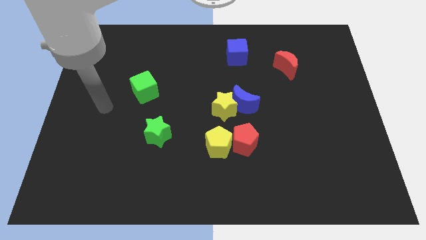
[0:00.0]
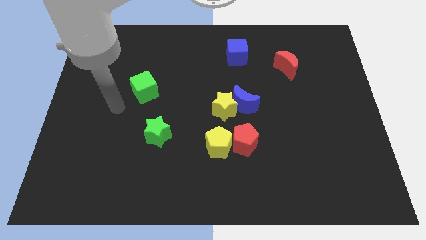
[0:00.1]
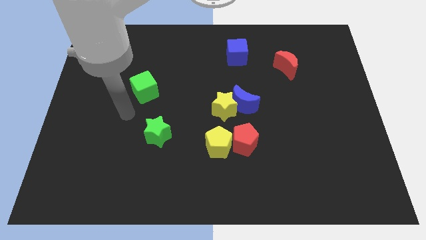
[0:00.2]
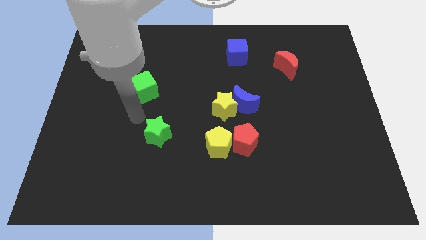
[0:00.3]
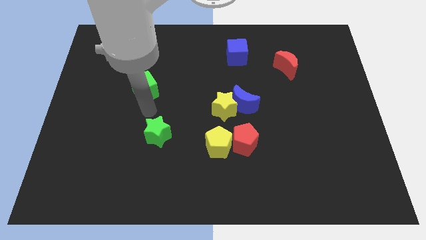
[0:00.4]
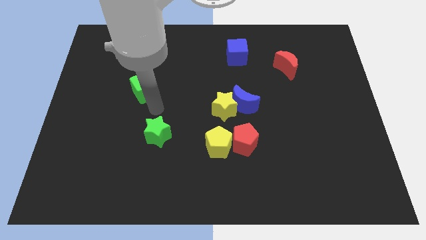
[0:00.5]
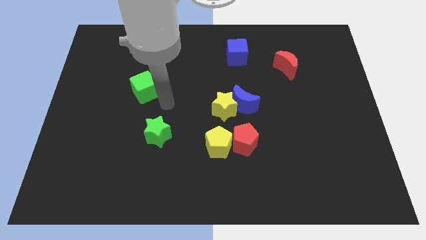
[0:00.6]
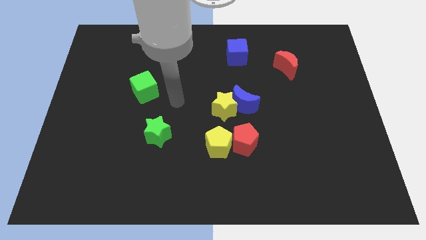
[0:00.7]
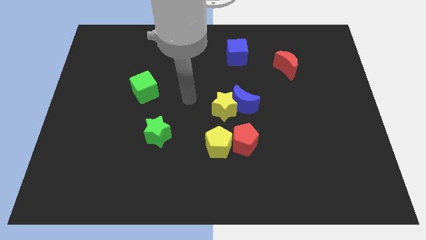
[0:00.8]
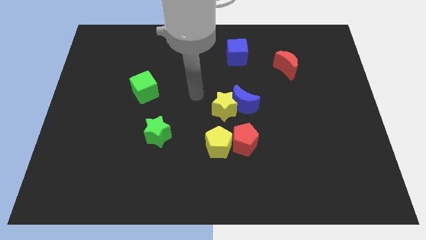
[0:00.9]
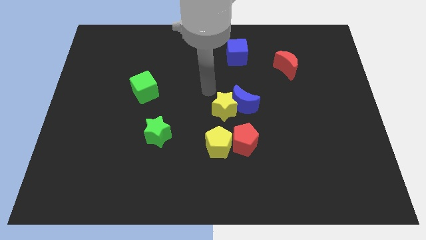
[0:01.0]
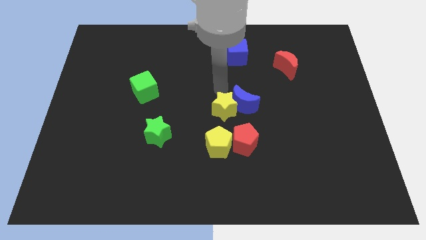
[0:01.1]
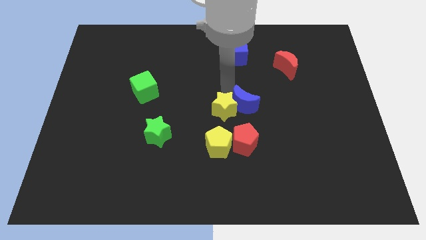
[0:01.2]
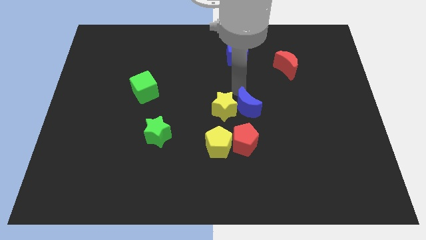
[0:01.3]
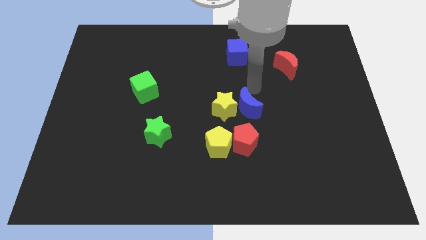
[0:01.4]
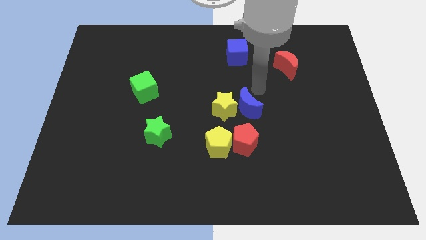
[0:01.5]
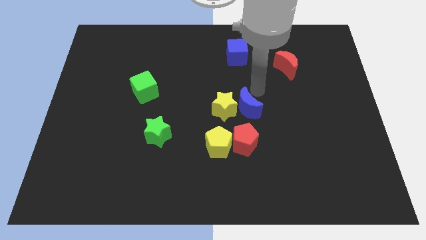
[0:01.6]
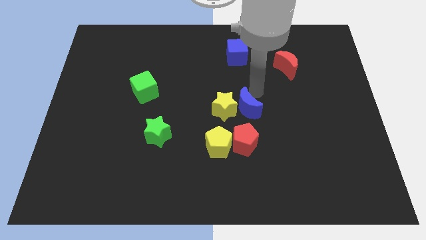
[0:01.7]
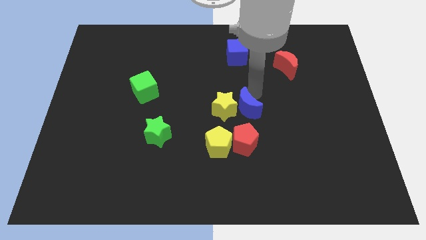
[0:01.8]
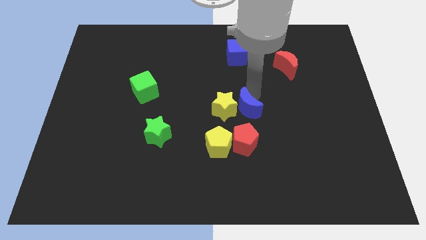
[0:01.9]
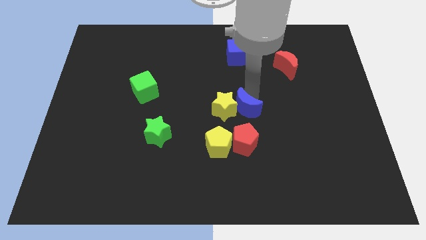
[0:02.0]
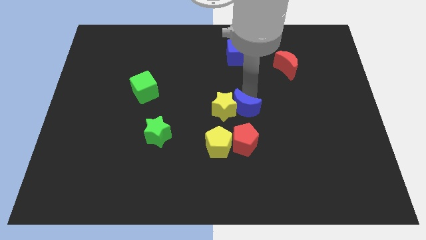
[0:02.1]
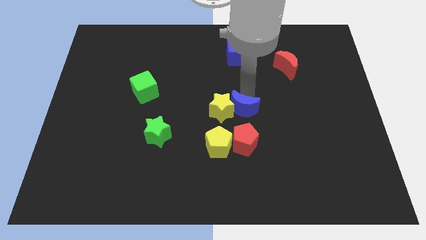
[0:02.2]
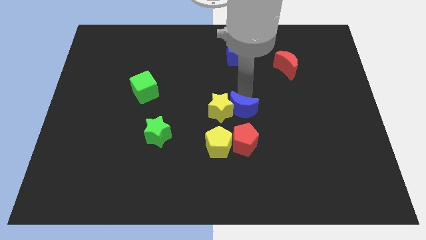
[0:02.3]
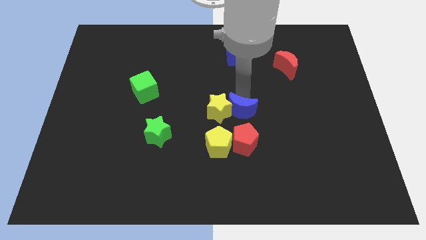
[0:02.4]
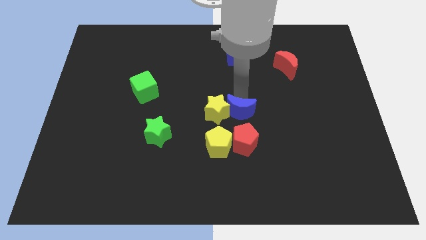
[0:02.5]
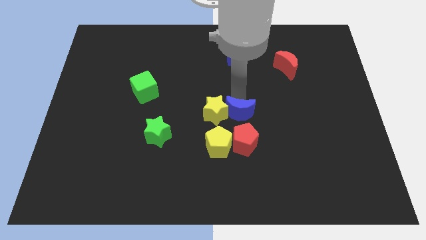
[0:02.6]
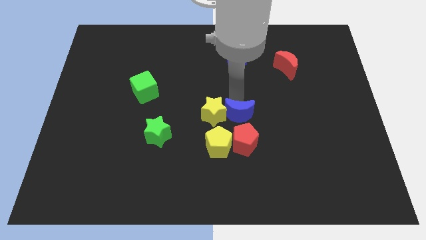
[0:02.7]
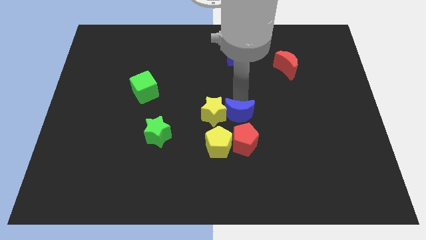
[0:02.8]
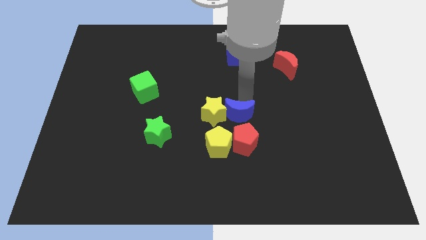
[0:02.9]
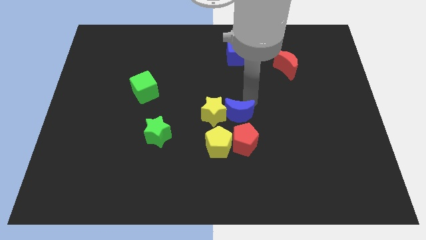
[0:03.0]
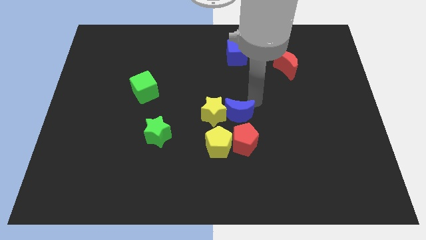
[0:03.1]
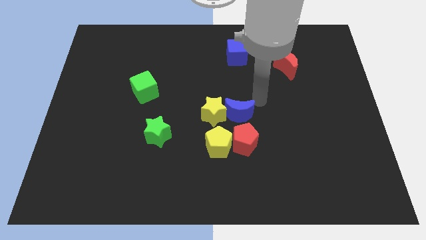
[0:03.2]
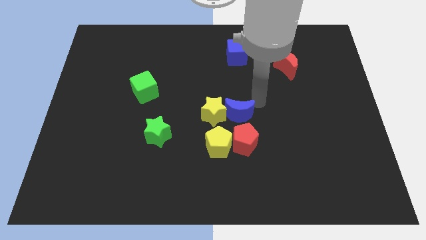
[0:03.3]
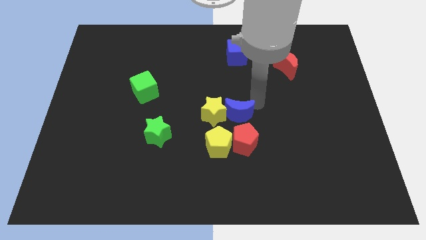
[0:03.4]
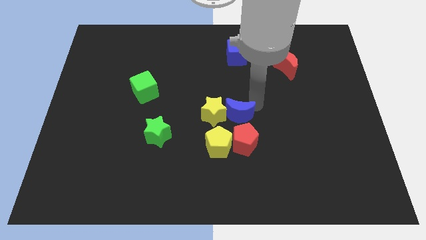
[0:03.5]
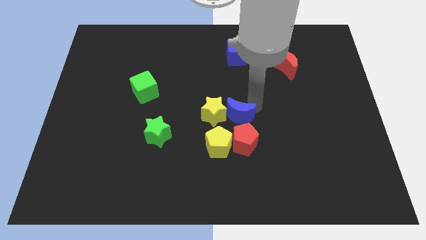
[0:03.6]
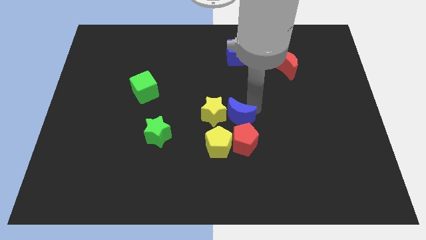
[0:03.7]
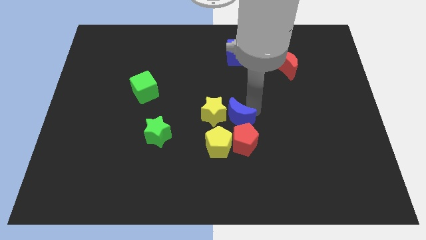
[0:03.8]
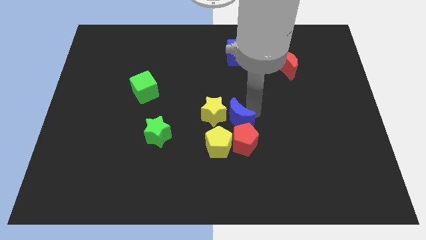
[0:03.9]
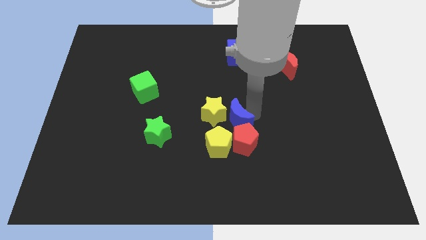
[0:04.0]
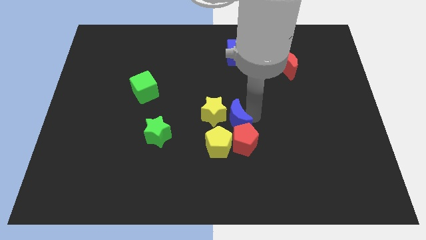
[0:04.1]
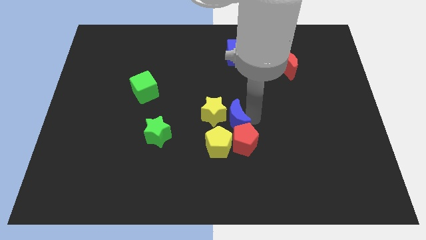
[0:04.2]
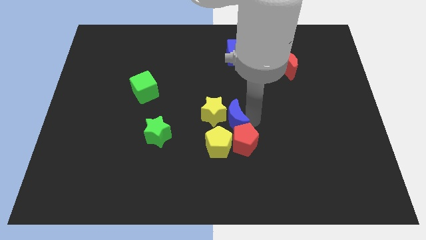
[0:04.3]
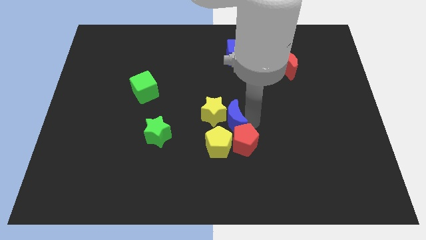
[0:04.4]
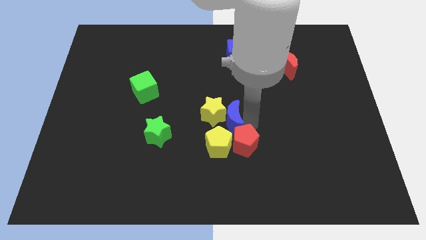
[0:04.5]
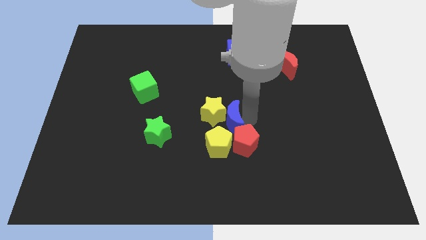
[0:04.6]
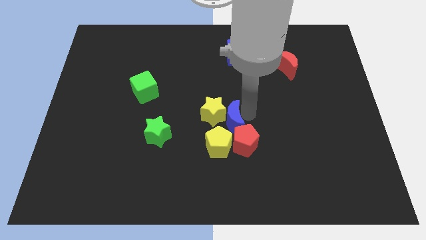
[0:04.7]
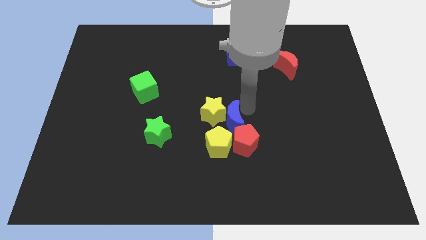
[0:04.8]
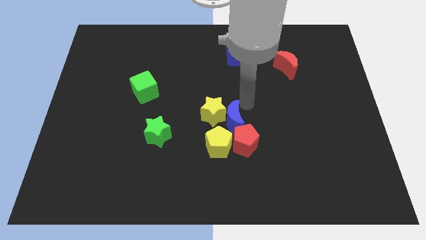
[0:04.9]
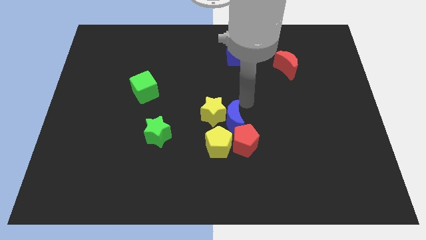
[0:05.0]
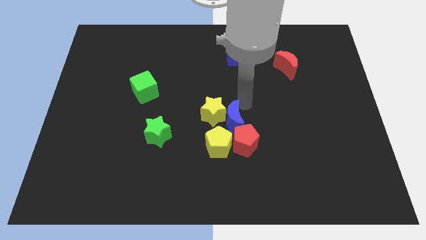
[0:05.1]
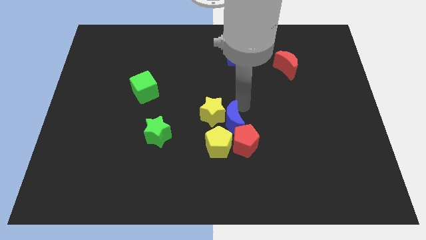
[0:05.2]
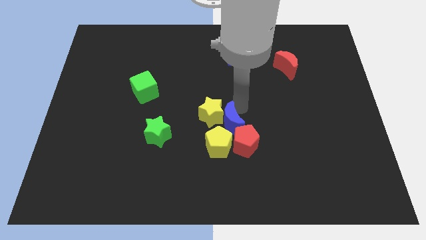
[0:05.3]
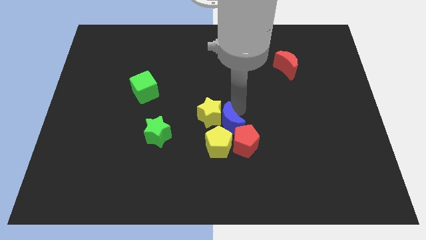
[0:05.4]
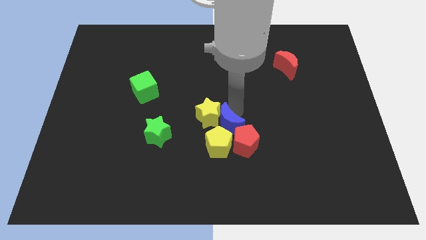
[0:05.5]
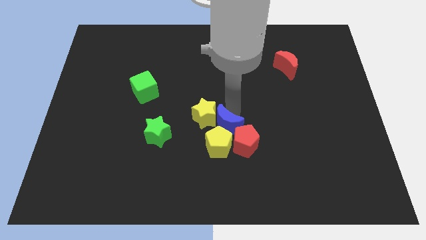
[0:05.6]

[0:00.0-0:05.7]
push the blue moon to the yellow pentagon

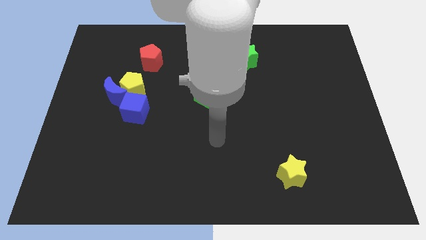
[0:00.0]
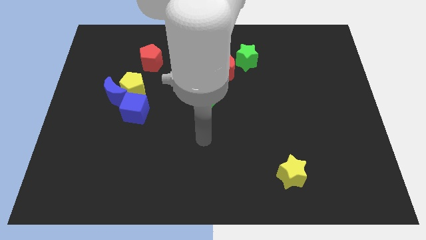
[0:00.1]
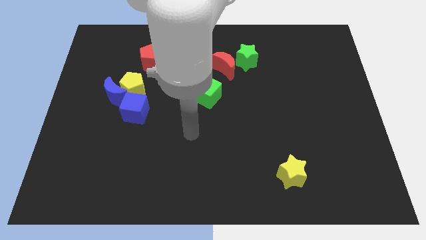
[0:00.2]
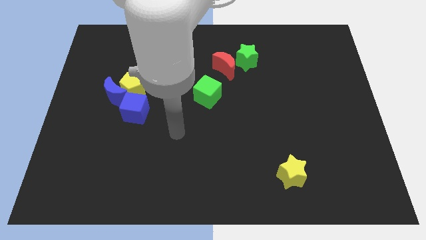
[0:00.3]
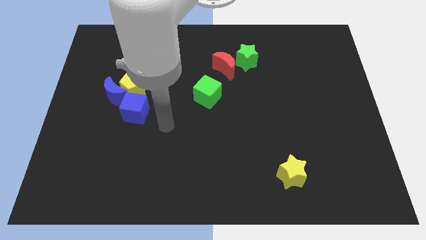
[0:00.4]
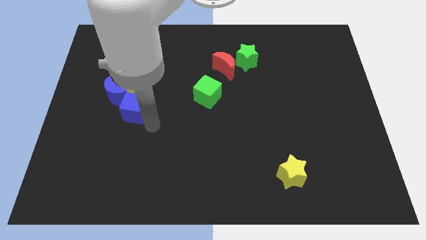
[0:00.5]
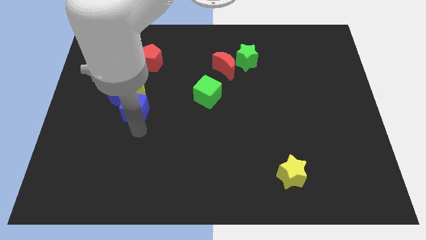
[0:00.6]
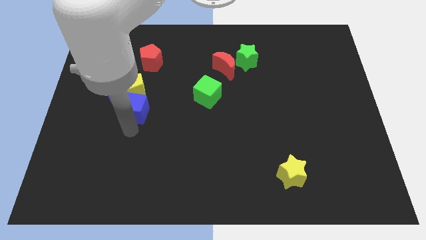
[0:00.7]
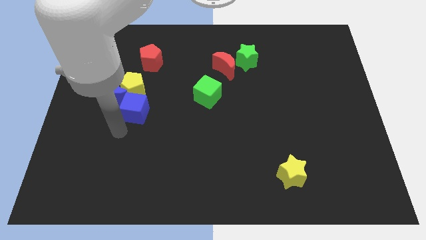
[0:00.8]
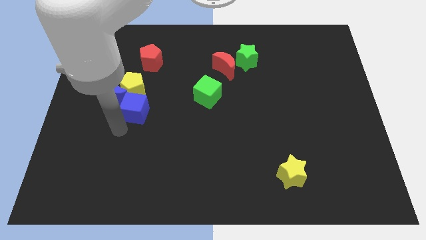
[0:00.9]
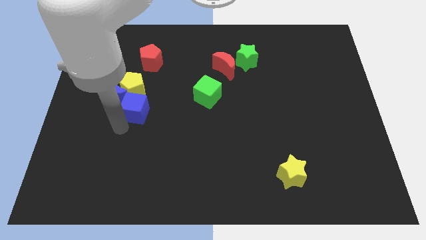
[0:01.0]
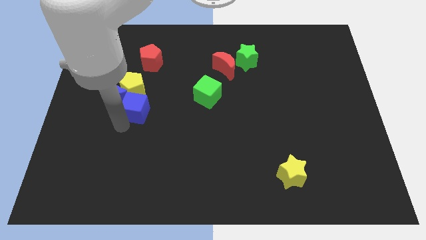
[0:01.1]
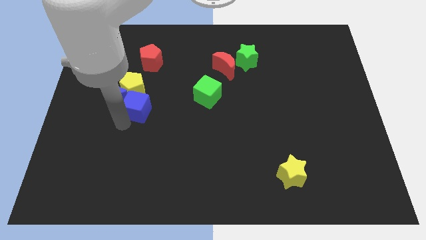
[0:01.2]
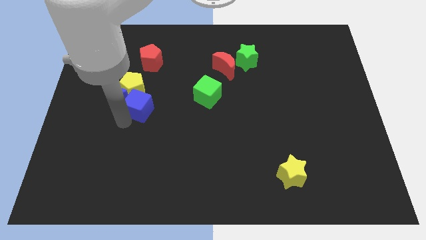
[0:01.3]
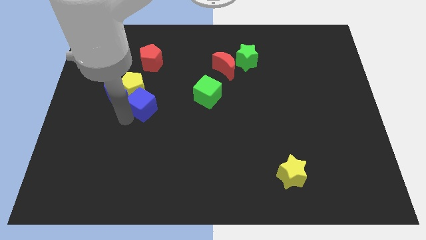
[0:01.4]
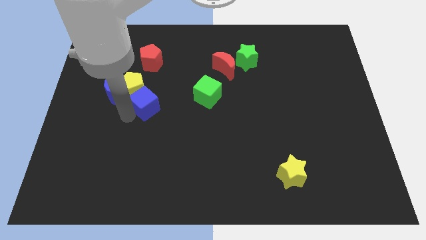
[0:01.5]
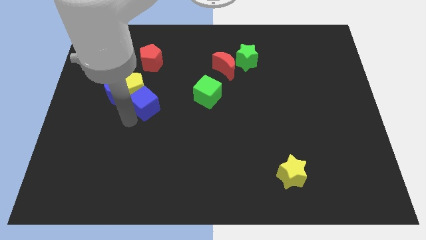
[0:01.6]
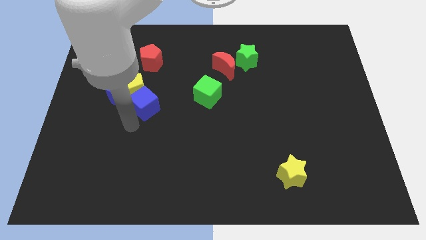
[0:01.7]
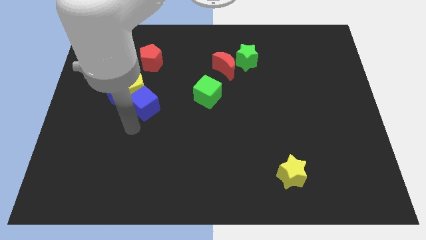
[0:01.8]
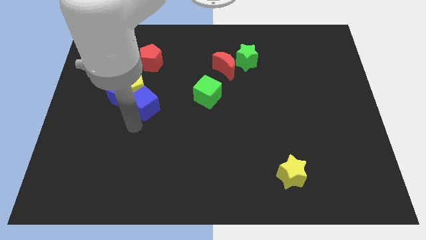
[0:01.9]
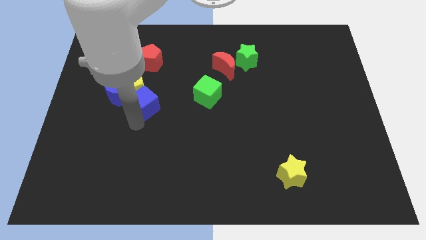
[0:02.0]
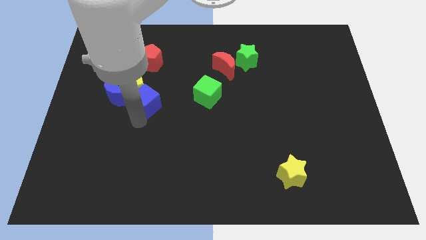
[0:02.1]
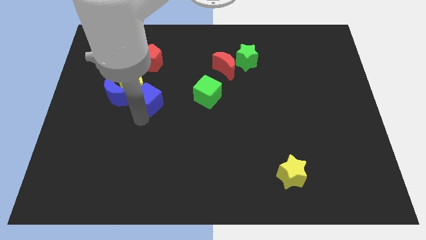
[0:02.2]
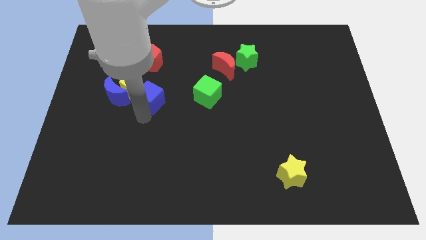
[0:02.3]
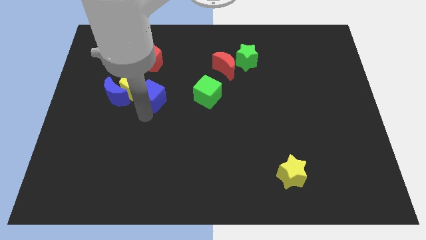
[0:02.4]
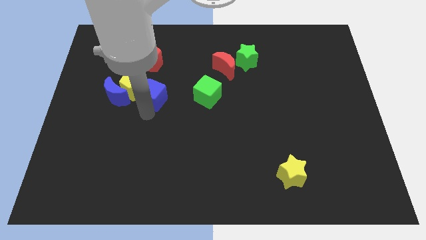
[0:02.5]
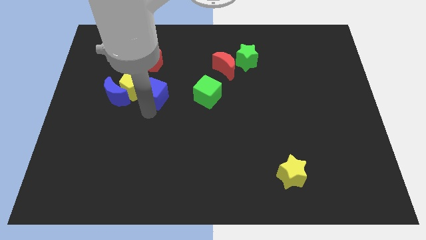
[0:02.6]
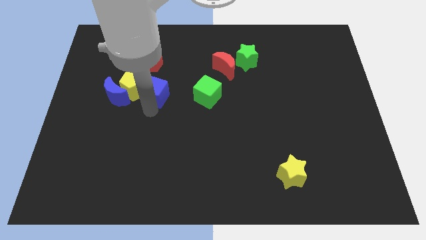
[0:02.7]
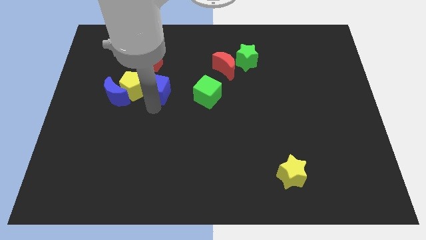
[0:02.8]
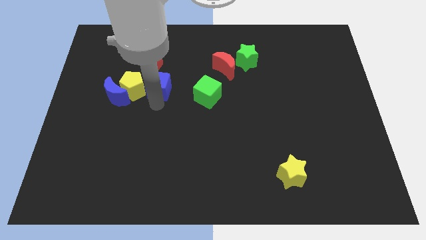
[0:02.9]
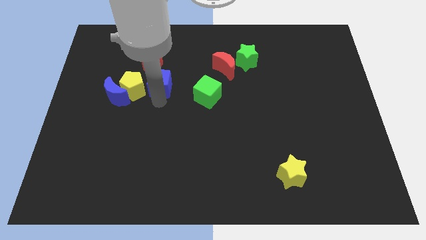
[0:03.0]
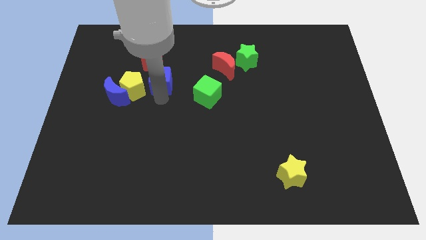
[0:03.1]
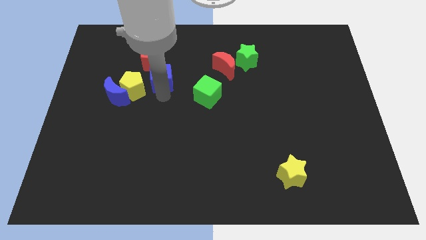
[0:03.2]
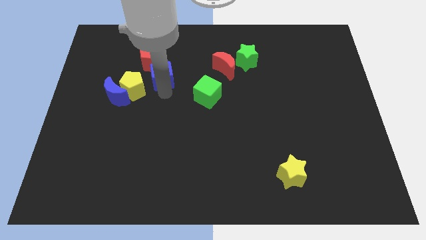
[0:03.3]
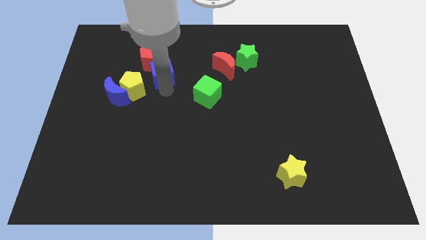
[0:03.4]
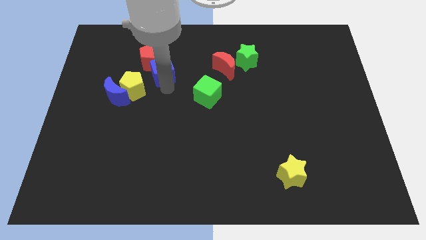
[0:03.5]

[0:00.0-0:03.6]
slide the blue cube close to the red pentagon
